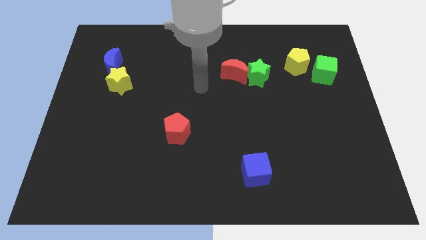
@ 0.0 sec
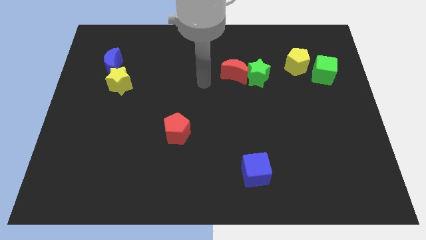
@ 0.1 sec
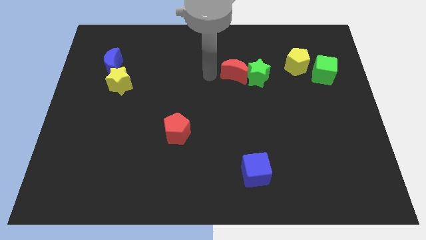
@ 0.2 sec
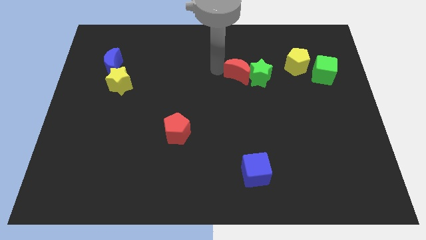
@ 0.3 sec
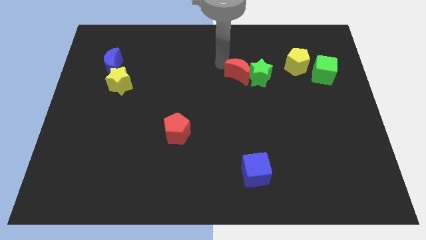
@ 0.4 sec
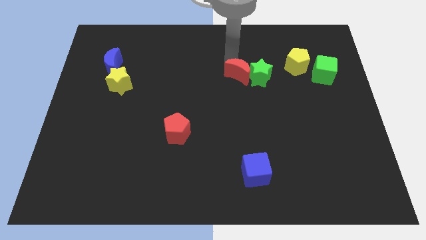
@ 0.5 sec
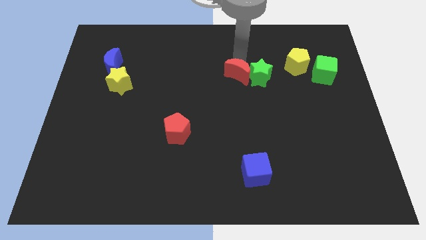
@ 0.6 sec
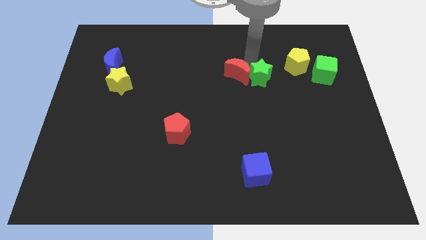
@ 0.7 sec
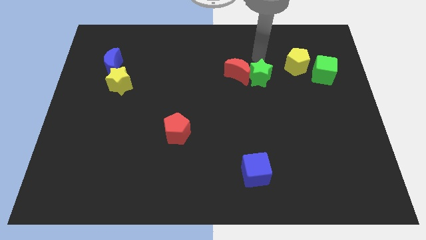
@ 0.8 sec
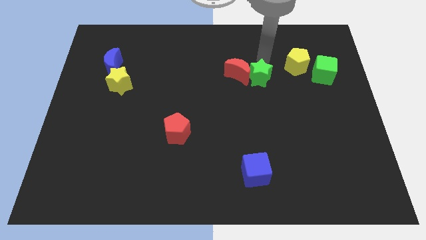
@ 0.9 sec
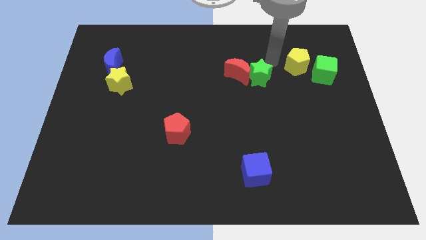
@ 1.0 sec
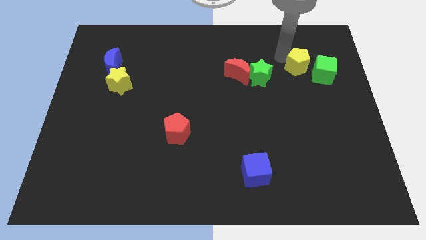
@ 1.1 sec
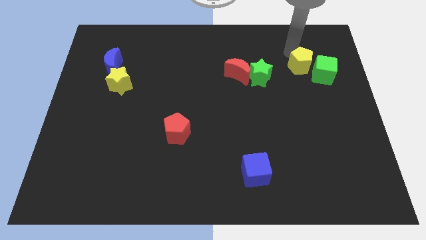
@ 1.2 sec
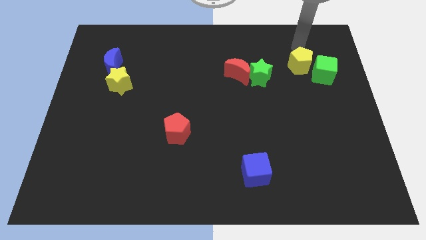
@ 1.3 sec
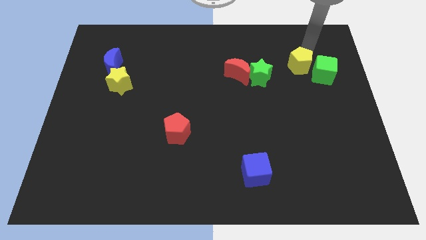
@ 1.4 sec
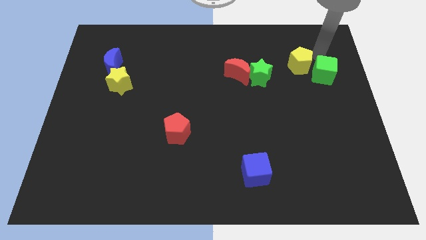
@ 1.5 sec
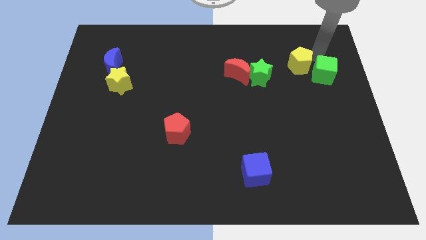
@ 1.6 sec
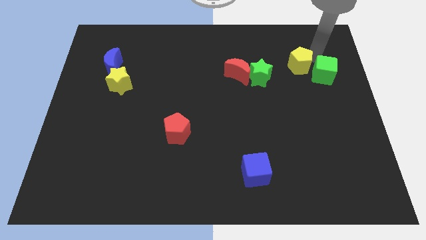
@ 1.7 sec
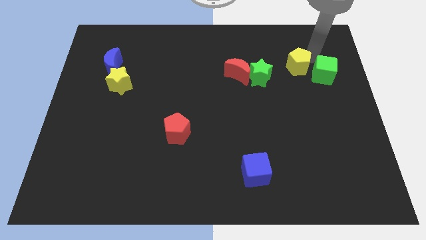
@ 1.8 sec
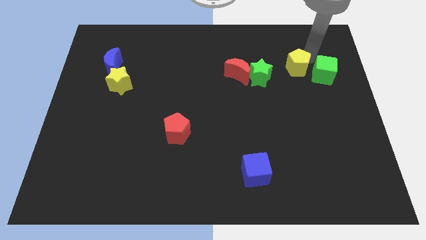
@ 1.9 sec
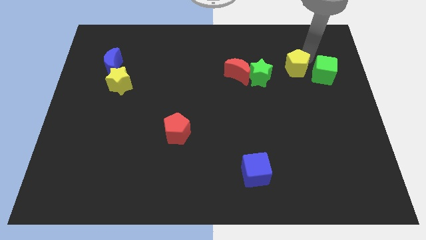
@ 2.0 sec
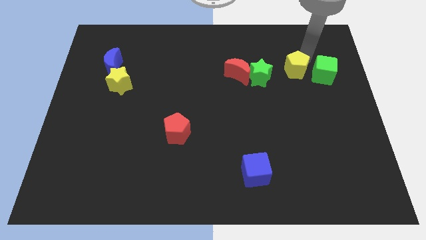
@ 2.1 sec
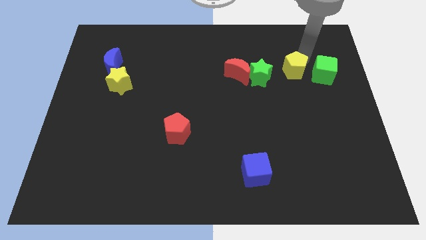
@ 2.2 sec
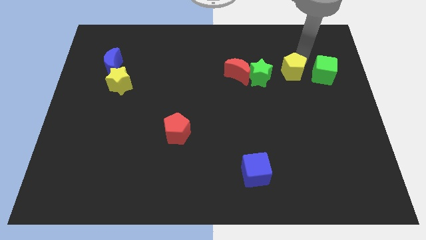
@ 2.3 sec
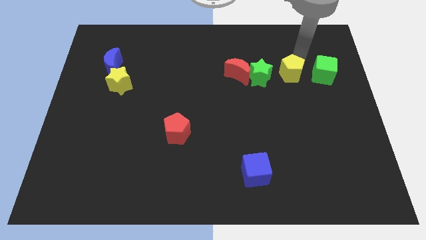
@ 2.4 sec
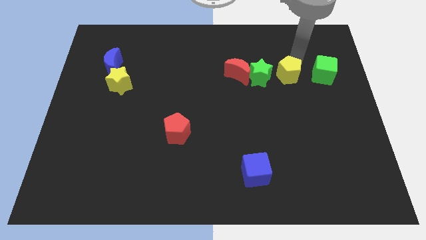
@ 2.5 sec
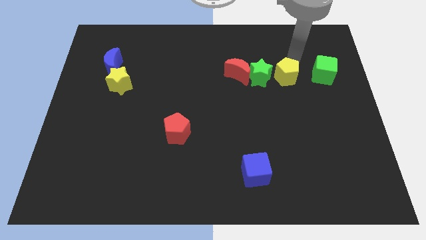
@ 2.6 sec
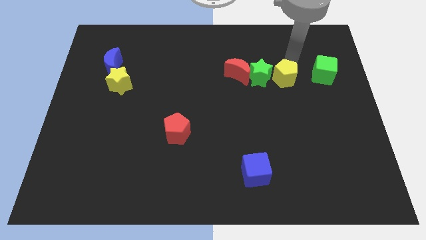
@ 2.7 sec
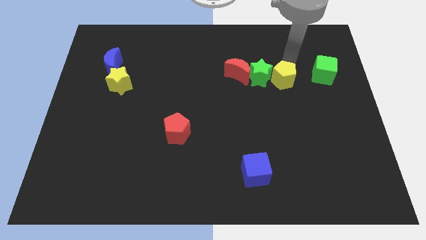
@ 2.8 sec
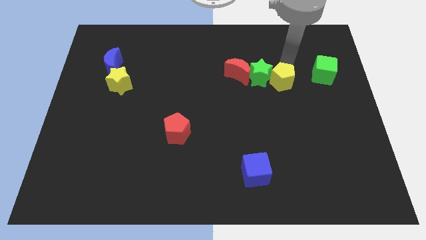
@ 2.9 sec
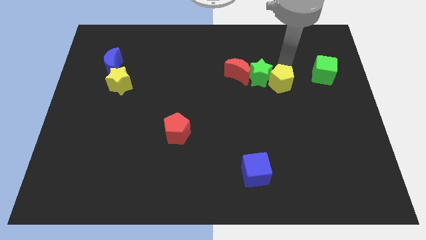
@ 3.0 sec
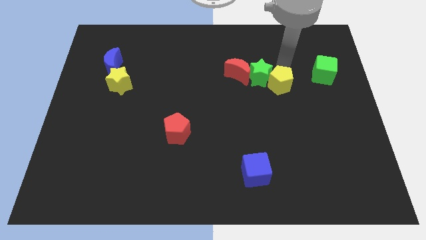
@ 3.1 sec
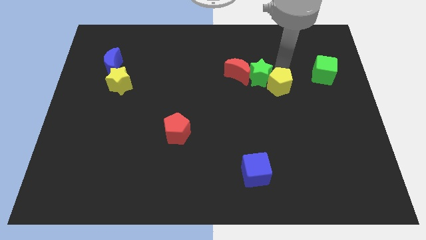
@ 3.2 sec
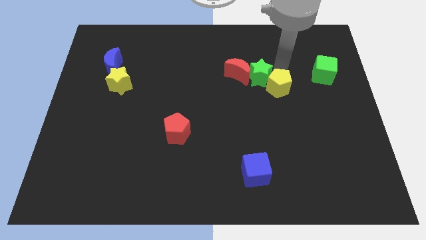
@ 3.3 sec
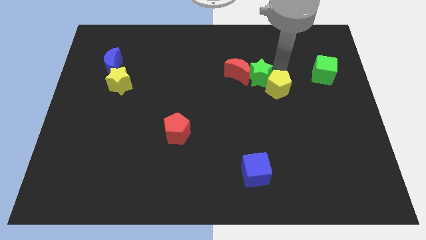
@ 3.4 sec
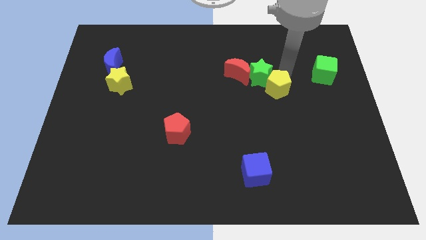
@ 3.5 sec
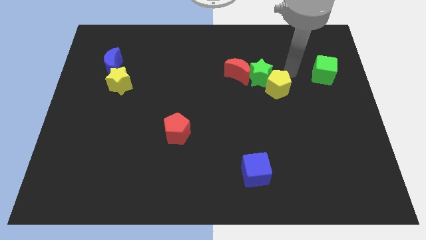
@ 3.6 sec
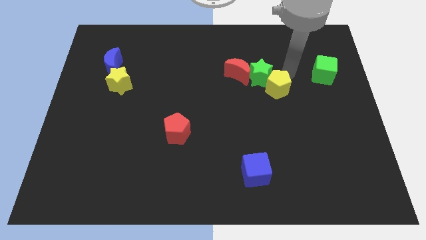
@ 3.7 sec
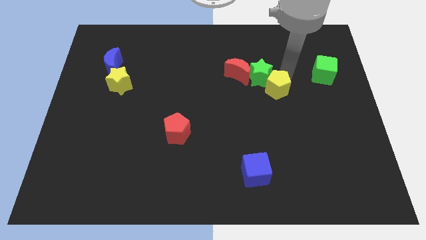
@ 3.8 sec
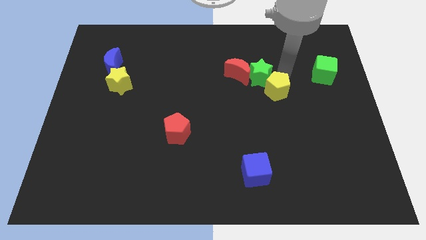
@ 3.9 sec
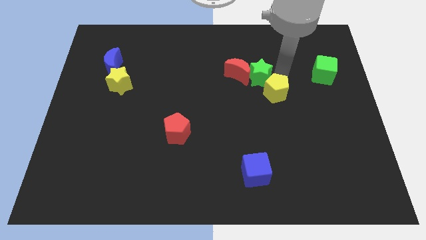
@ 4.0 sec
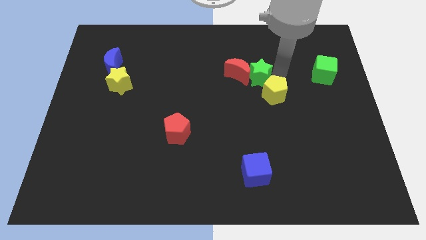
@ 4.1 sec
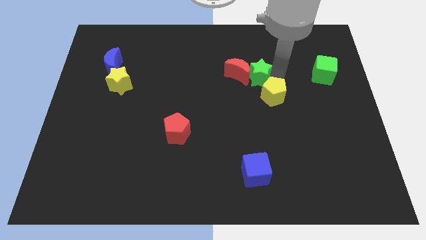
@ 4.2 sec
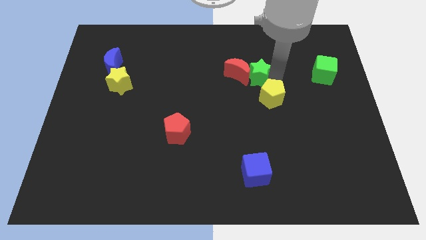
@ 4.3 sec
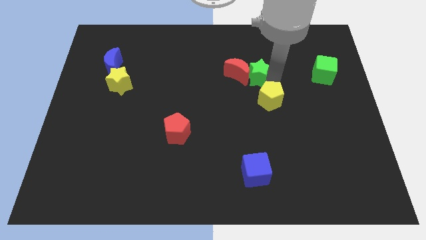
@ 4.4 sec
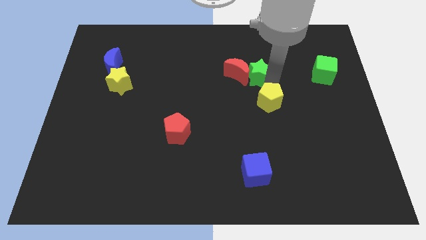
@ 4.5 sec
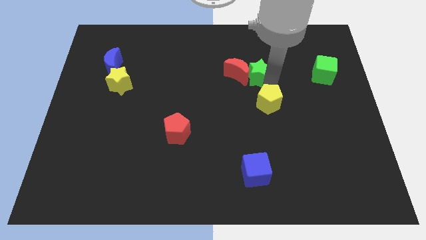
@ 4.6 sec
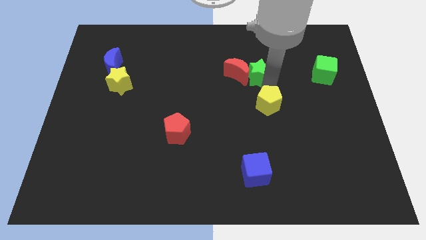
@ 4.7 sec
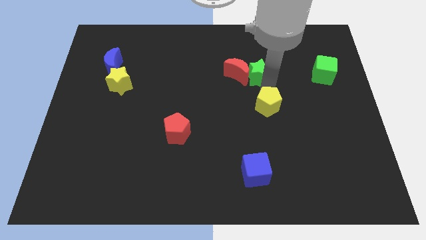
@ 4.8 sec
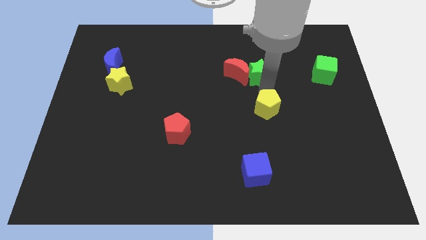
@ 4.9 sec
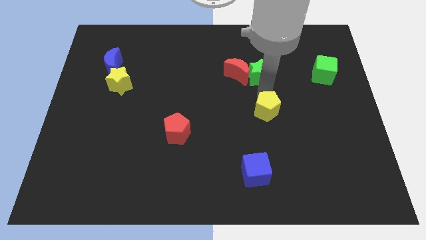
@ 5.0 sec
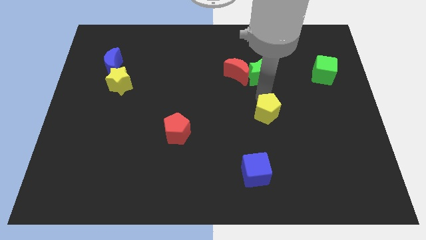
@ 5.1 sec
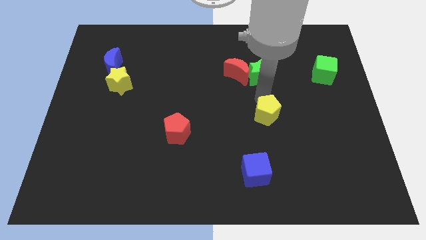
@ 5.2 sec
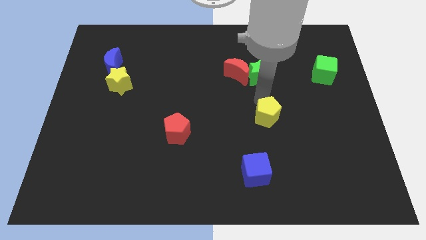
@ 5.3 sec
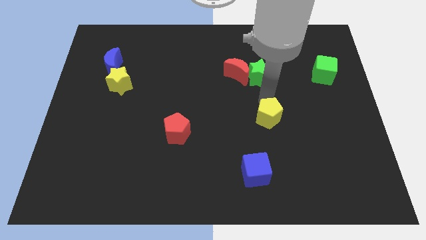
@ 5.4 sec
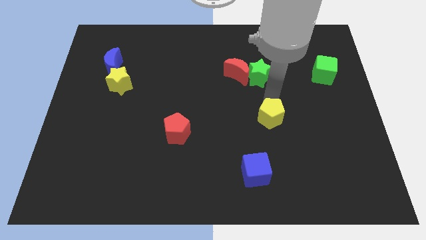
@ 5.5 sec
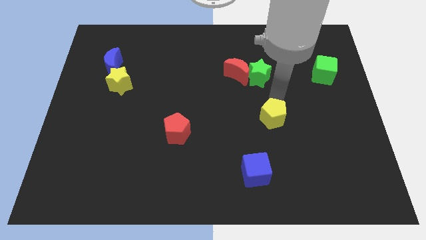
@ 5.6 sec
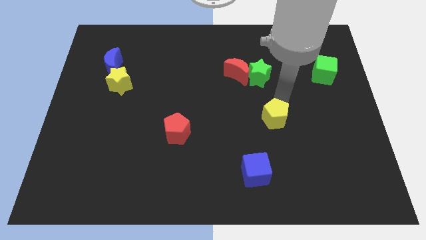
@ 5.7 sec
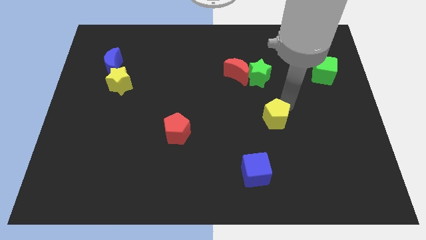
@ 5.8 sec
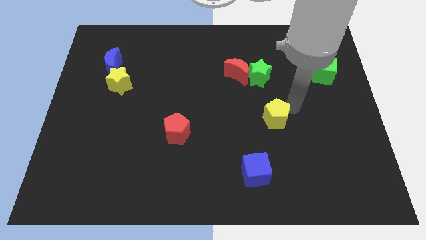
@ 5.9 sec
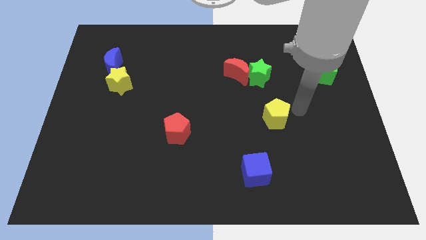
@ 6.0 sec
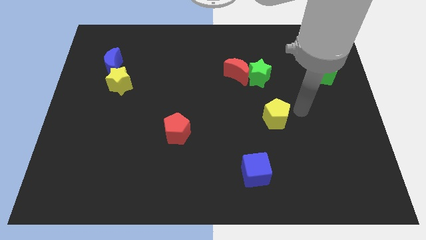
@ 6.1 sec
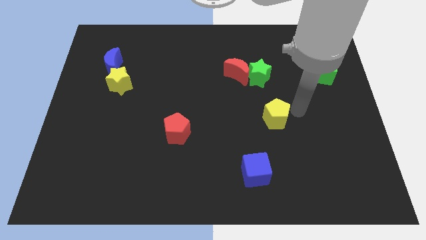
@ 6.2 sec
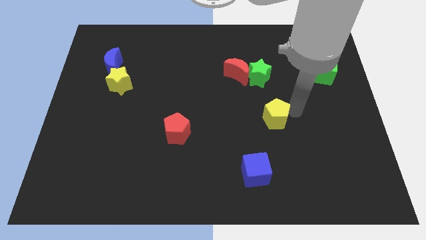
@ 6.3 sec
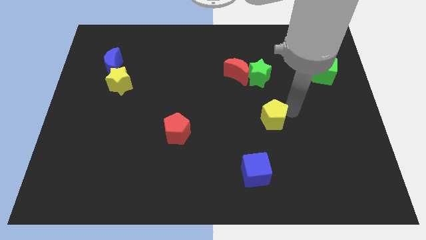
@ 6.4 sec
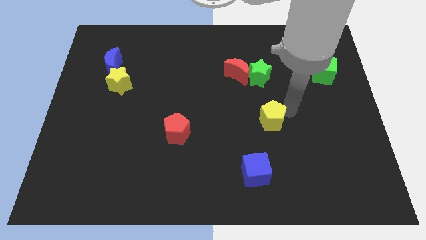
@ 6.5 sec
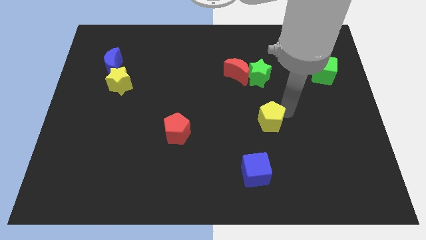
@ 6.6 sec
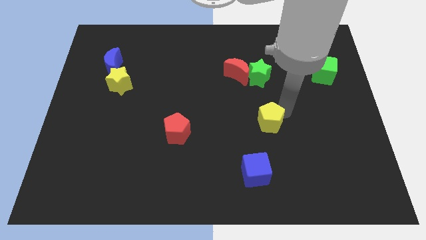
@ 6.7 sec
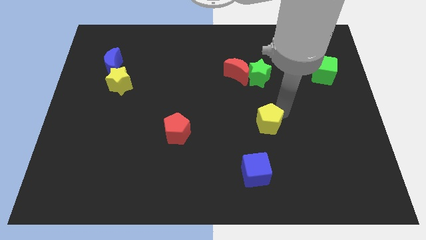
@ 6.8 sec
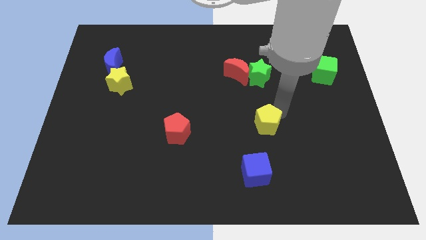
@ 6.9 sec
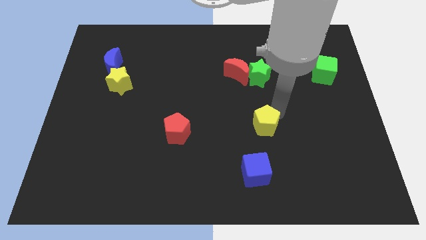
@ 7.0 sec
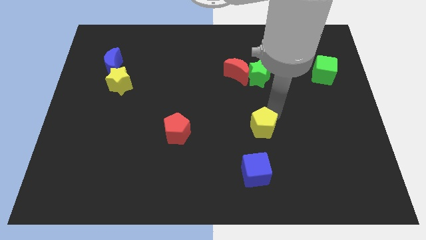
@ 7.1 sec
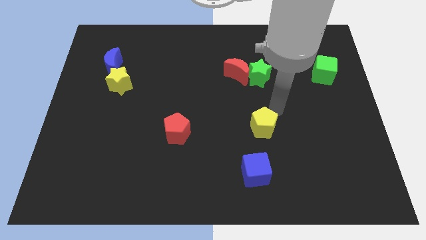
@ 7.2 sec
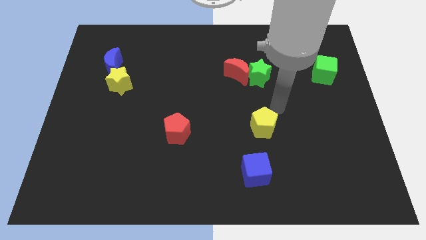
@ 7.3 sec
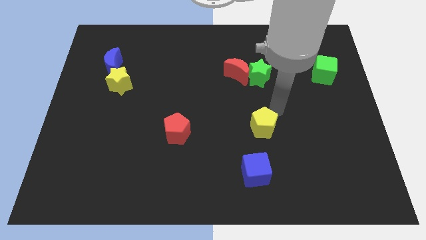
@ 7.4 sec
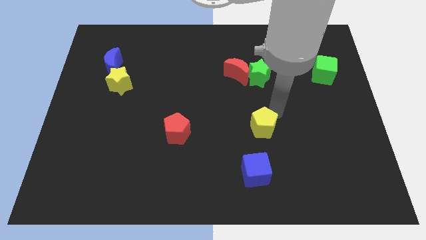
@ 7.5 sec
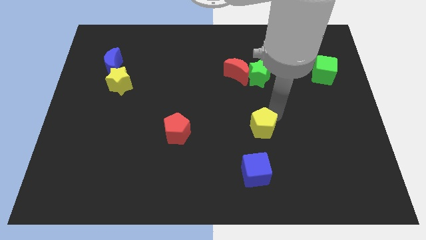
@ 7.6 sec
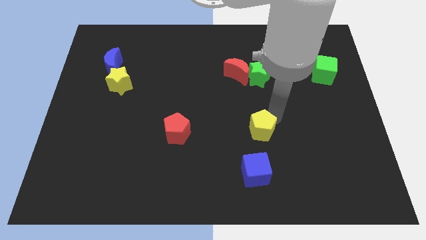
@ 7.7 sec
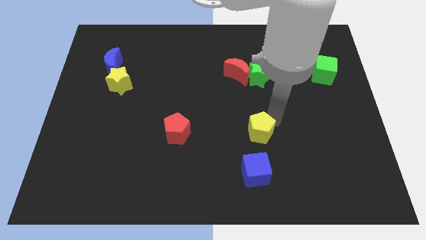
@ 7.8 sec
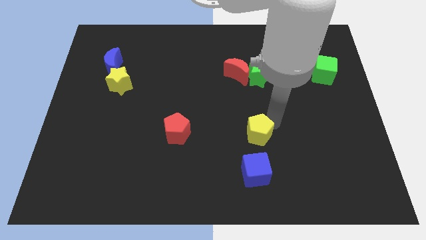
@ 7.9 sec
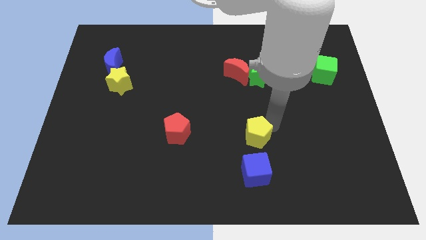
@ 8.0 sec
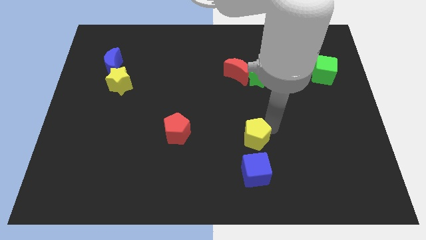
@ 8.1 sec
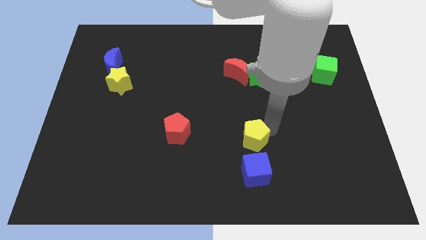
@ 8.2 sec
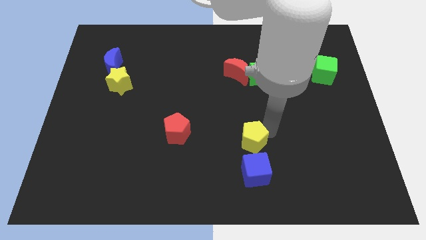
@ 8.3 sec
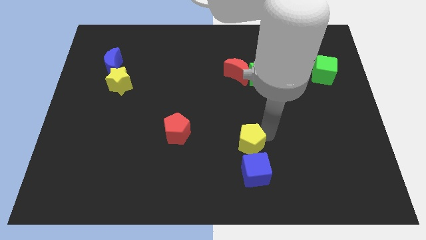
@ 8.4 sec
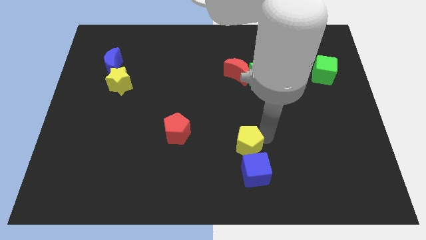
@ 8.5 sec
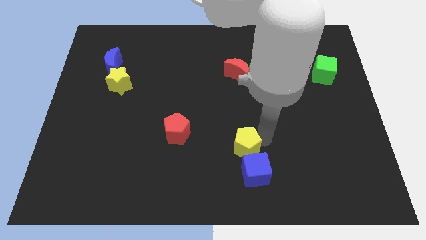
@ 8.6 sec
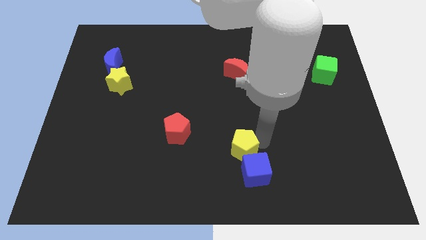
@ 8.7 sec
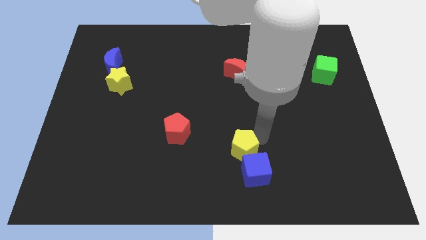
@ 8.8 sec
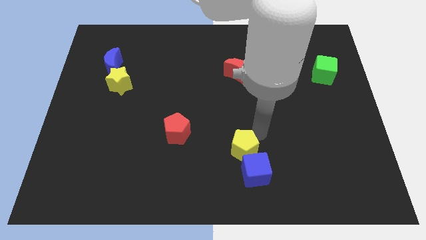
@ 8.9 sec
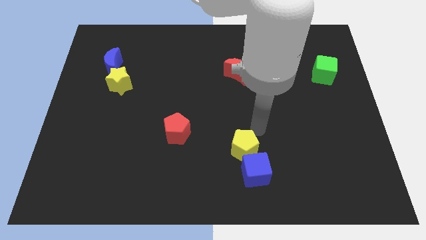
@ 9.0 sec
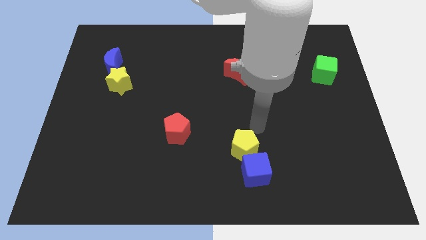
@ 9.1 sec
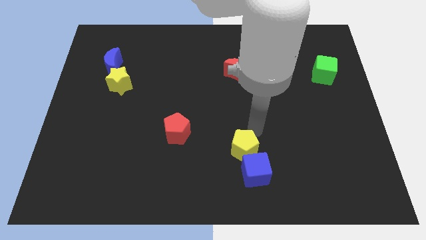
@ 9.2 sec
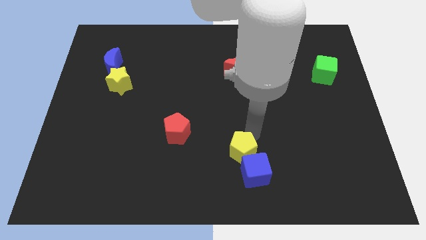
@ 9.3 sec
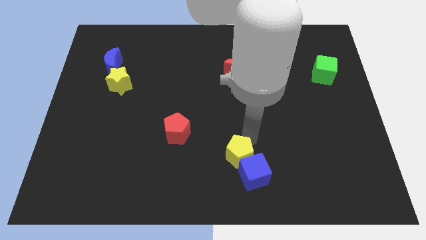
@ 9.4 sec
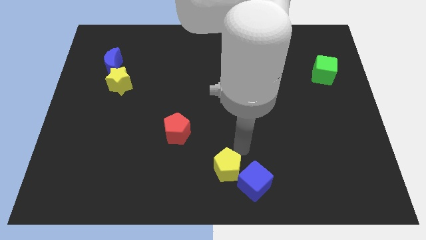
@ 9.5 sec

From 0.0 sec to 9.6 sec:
put the yellow pentagon to the bottom
